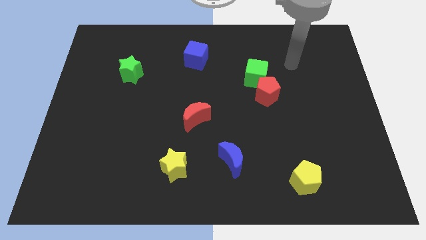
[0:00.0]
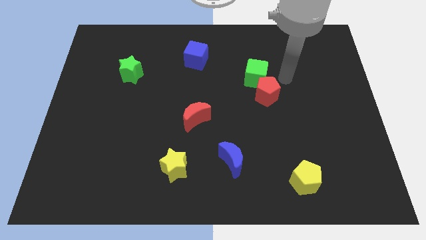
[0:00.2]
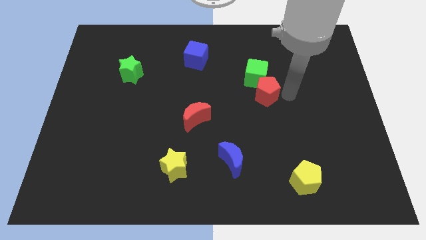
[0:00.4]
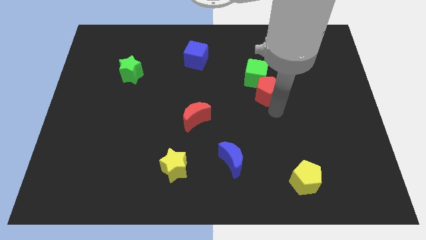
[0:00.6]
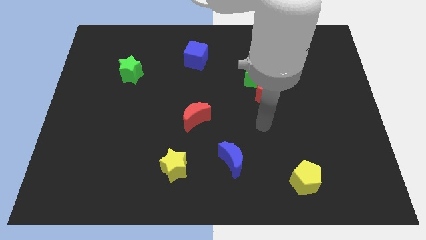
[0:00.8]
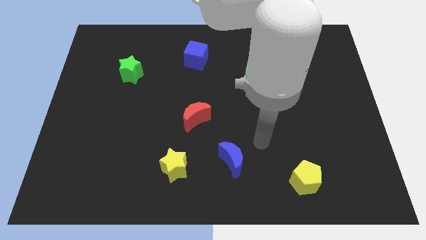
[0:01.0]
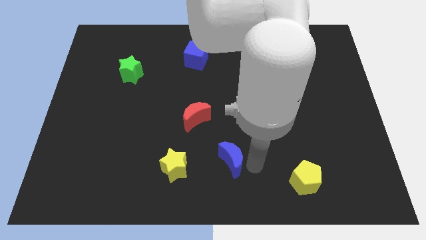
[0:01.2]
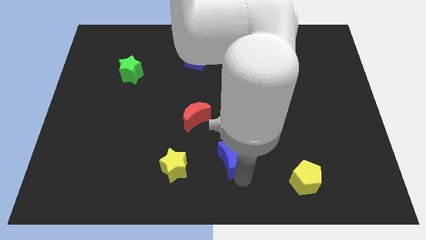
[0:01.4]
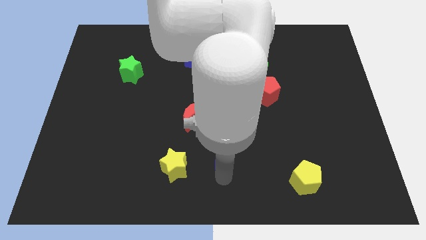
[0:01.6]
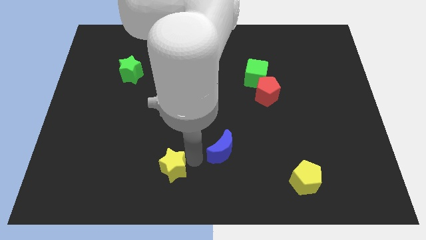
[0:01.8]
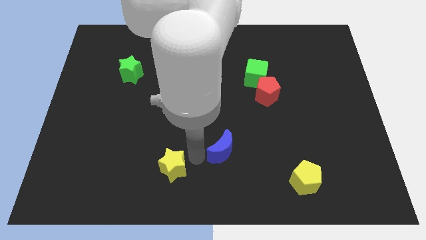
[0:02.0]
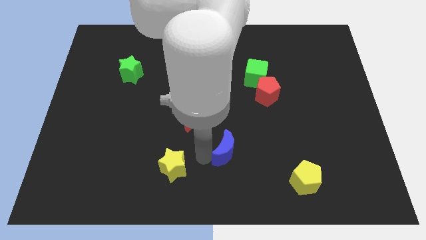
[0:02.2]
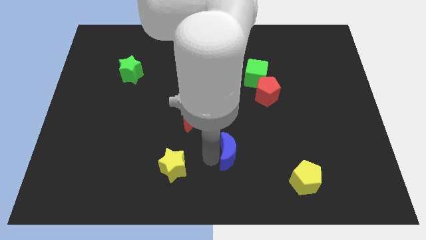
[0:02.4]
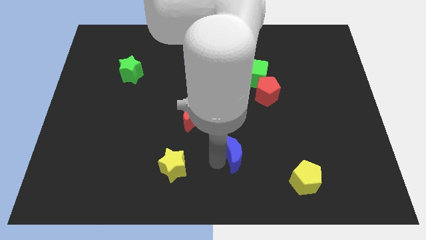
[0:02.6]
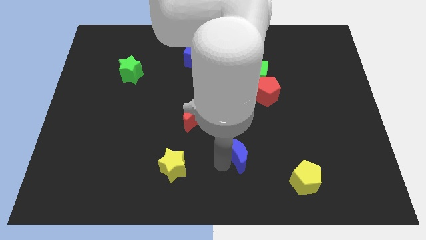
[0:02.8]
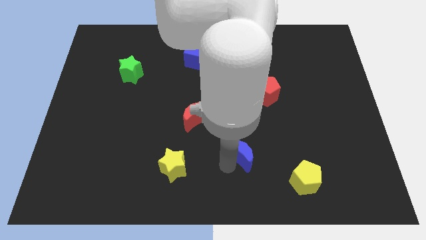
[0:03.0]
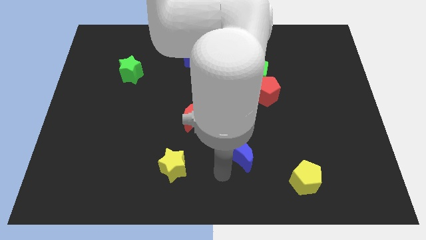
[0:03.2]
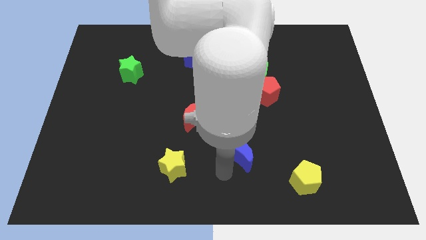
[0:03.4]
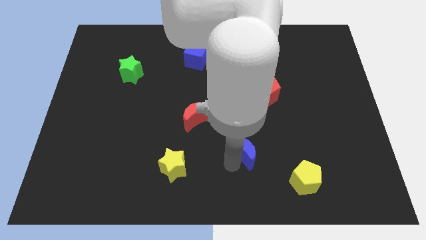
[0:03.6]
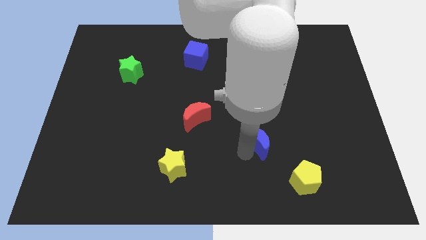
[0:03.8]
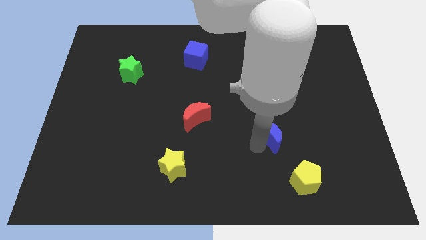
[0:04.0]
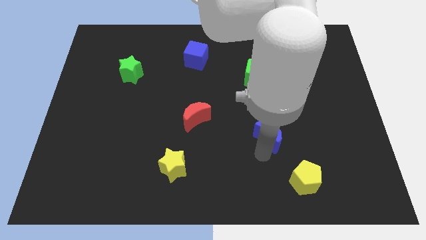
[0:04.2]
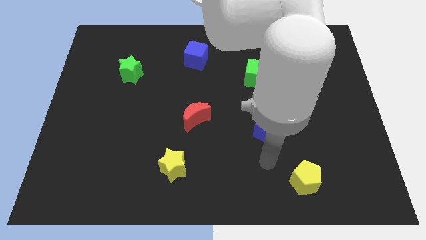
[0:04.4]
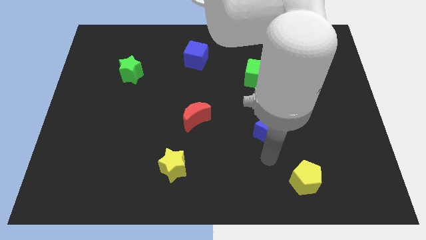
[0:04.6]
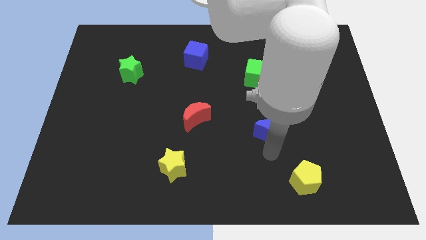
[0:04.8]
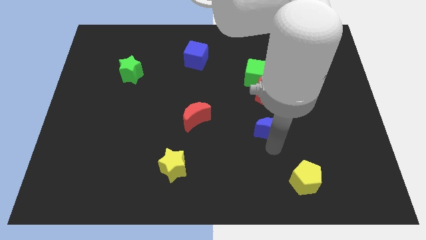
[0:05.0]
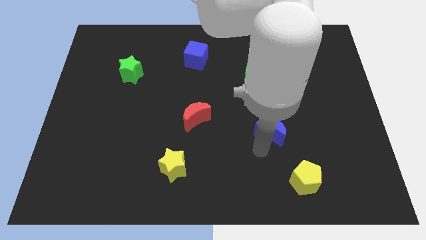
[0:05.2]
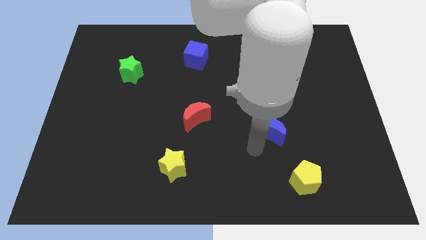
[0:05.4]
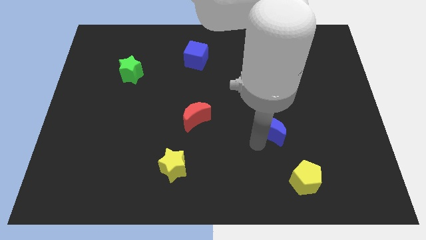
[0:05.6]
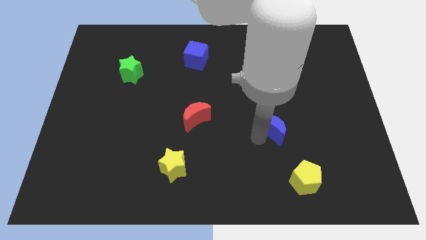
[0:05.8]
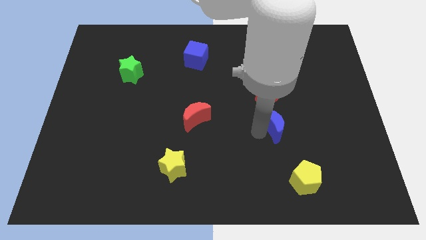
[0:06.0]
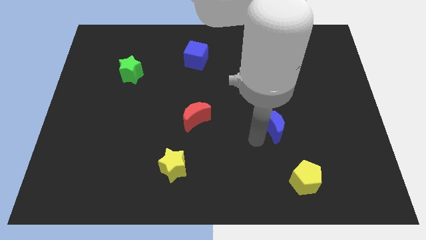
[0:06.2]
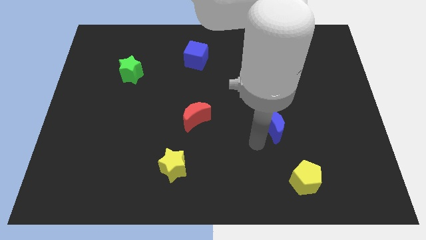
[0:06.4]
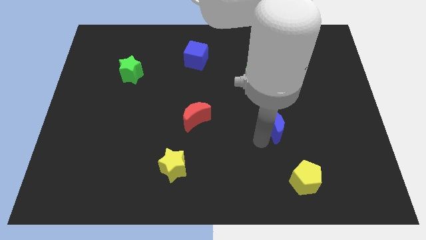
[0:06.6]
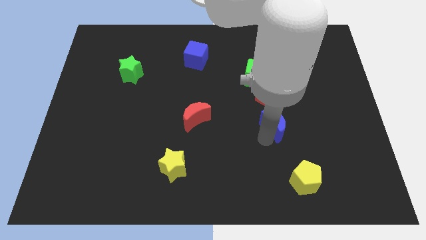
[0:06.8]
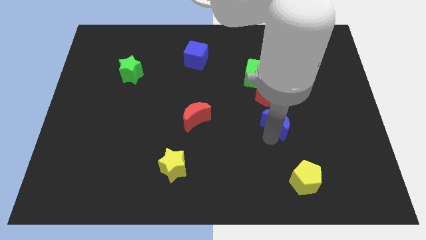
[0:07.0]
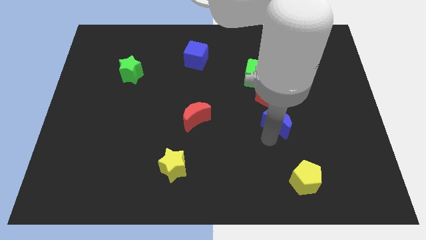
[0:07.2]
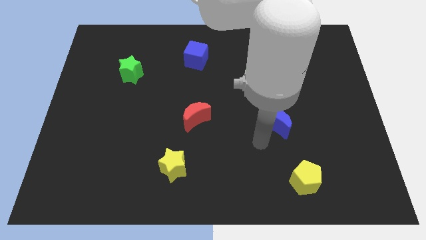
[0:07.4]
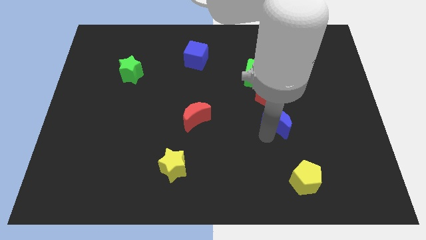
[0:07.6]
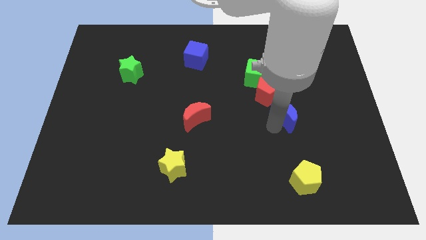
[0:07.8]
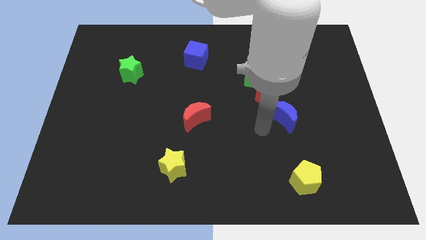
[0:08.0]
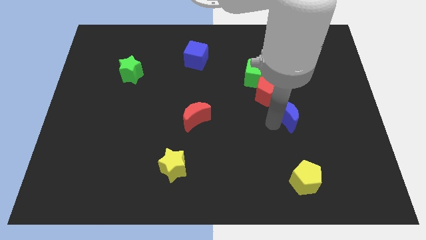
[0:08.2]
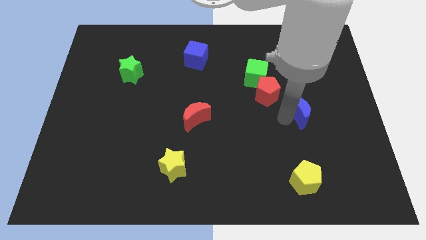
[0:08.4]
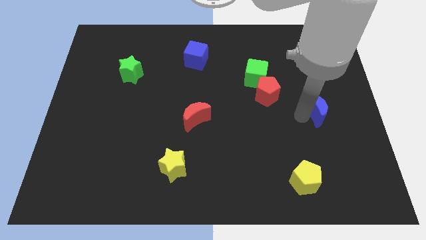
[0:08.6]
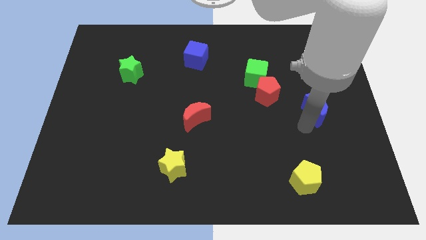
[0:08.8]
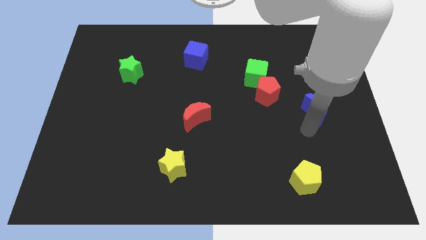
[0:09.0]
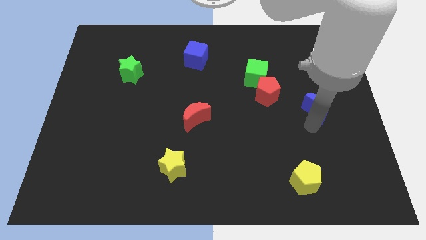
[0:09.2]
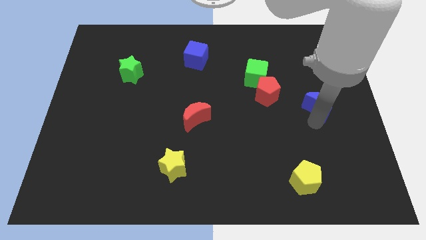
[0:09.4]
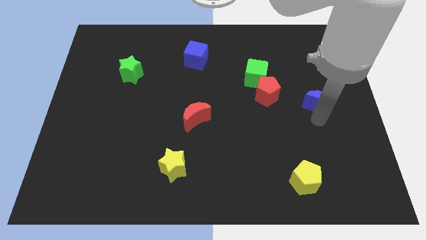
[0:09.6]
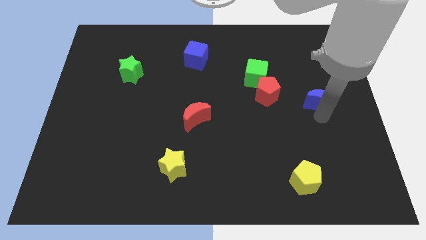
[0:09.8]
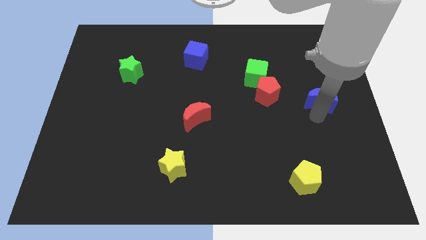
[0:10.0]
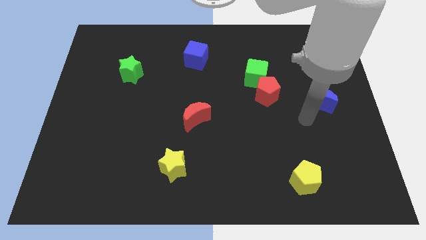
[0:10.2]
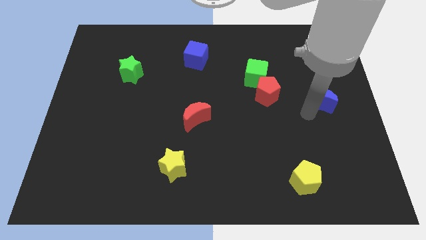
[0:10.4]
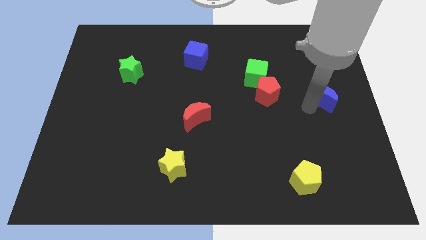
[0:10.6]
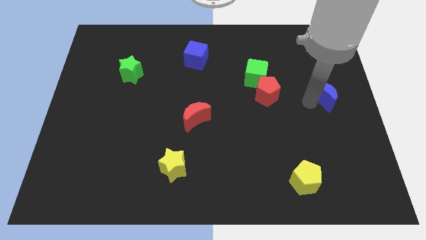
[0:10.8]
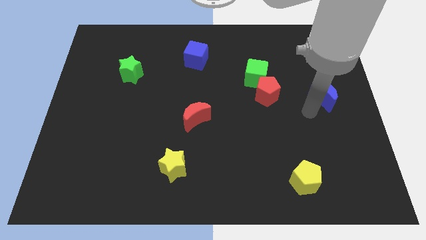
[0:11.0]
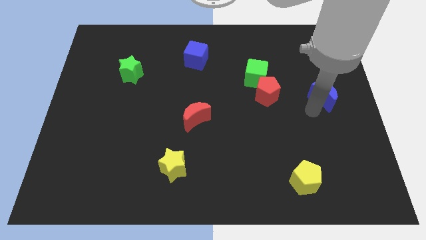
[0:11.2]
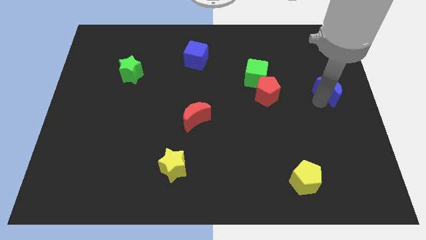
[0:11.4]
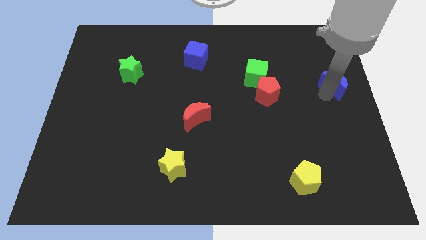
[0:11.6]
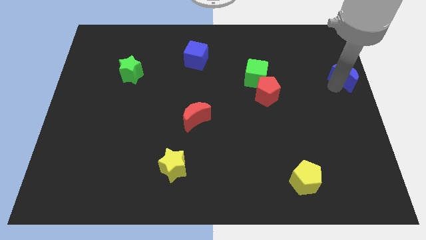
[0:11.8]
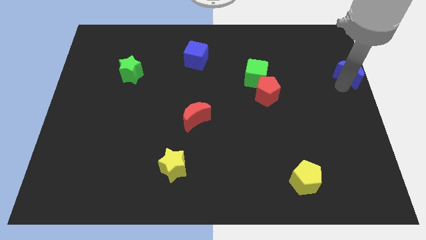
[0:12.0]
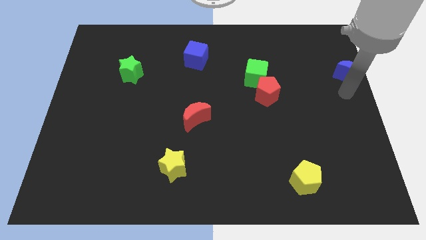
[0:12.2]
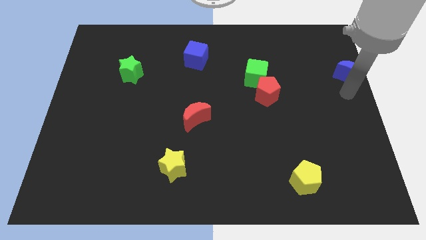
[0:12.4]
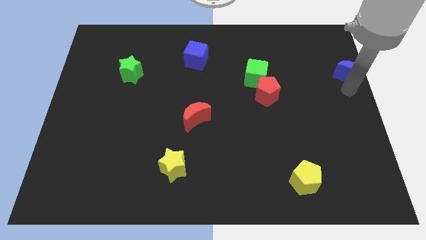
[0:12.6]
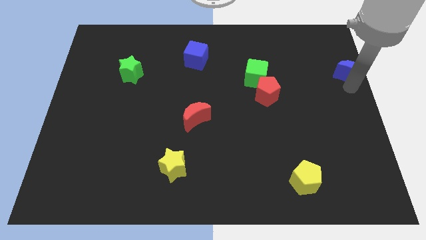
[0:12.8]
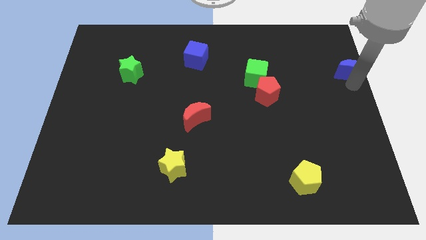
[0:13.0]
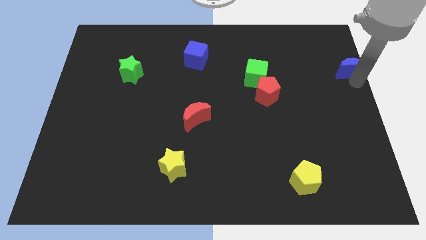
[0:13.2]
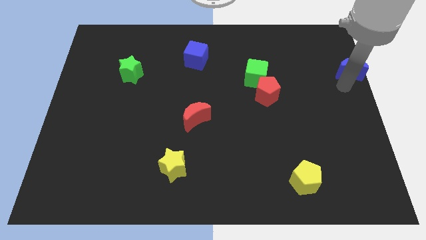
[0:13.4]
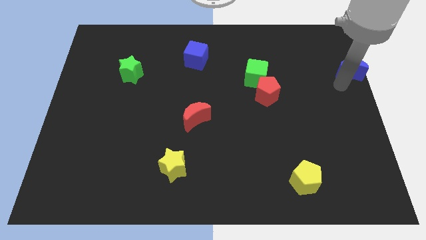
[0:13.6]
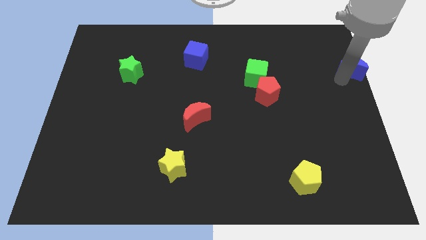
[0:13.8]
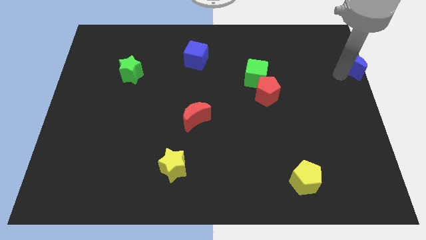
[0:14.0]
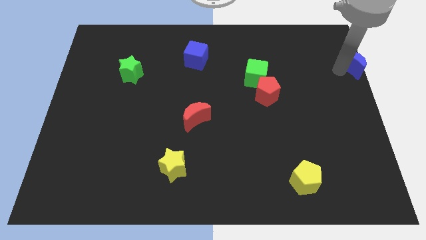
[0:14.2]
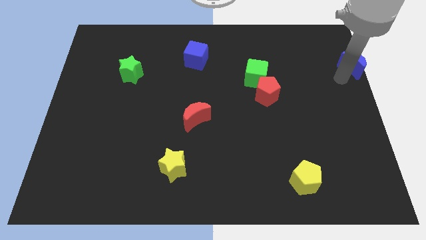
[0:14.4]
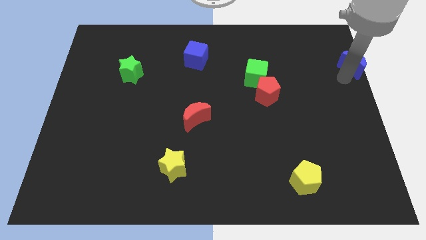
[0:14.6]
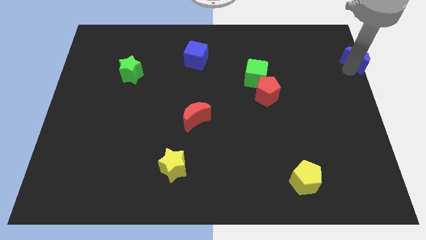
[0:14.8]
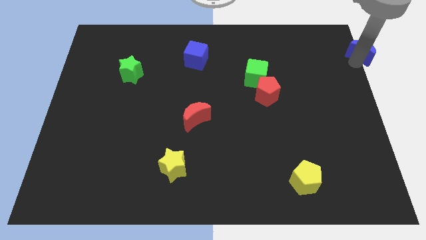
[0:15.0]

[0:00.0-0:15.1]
put the blue moon to the upper right corner
